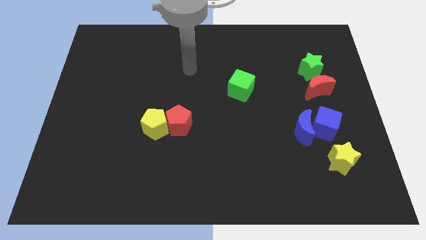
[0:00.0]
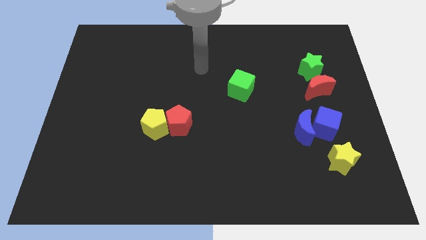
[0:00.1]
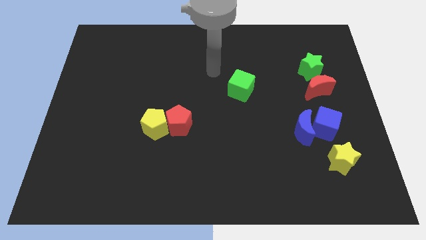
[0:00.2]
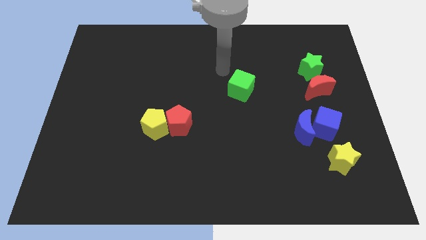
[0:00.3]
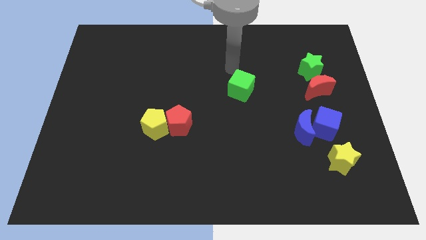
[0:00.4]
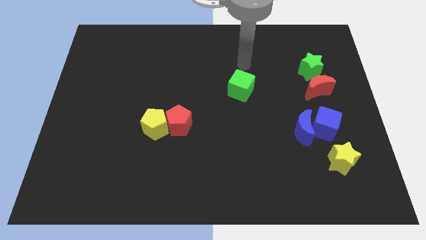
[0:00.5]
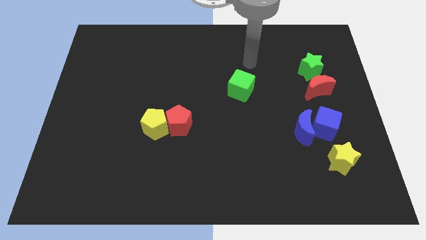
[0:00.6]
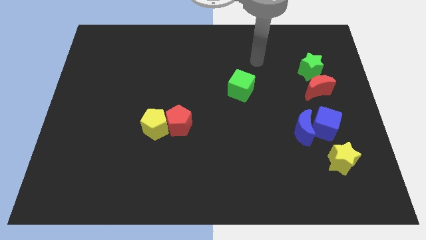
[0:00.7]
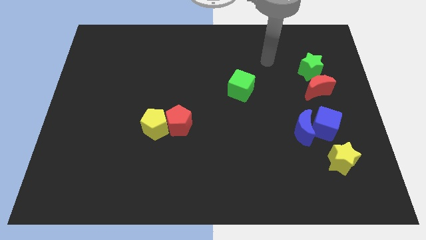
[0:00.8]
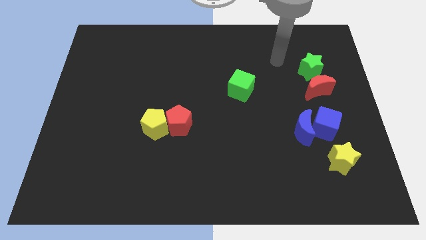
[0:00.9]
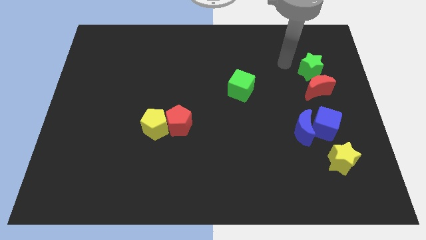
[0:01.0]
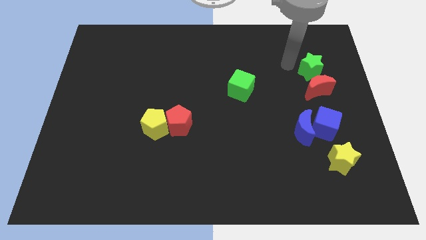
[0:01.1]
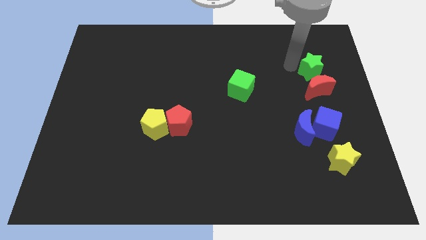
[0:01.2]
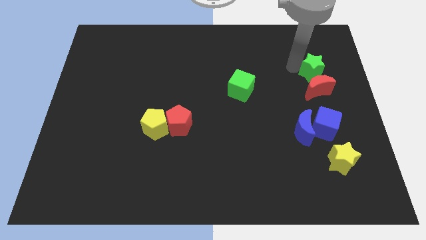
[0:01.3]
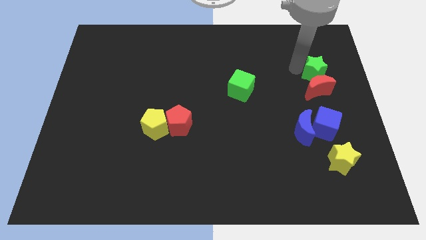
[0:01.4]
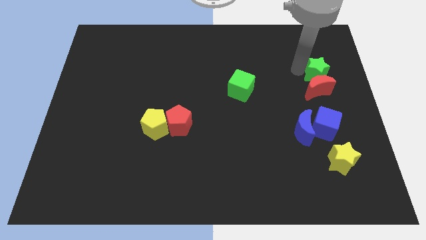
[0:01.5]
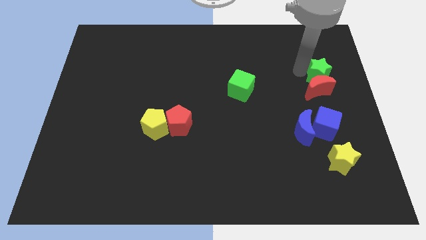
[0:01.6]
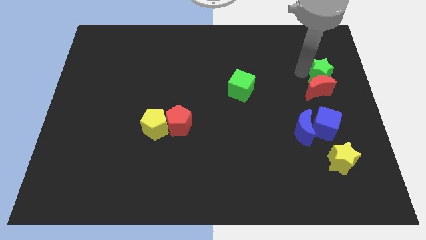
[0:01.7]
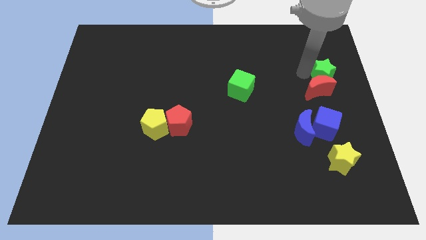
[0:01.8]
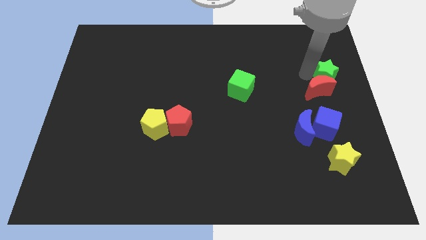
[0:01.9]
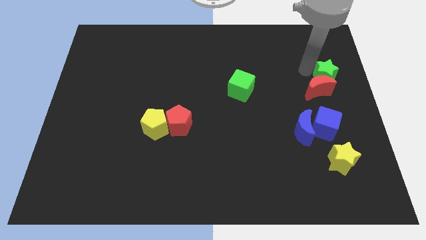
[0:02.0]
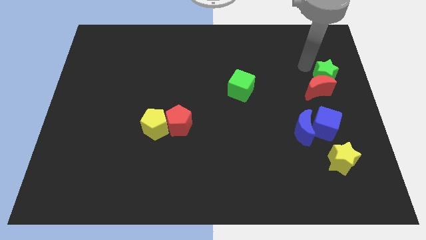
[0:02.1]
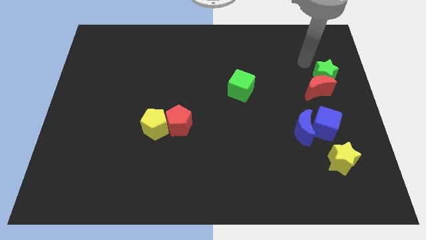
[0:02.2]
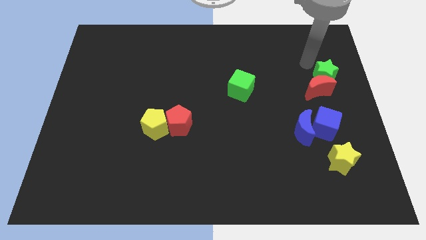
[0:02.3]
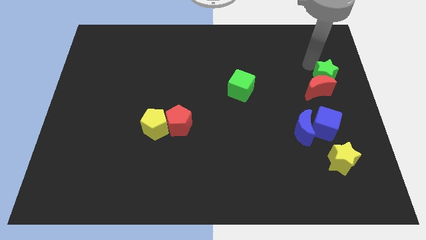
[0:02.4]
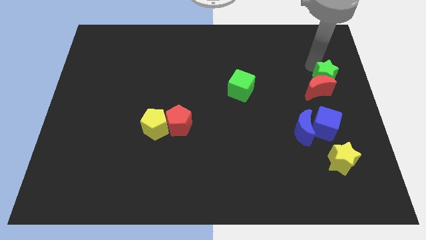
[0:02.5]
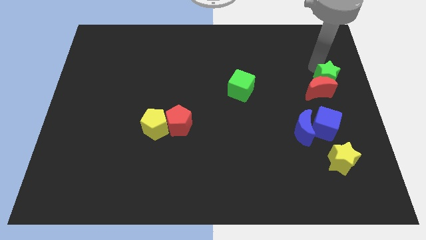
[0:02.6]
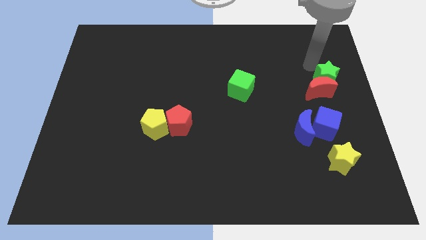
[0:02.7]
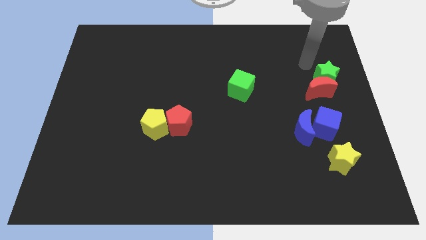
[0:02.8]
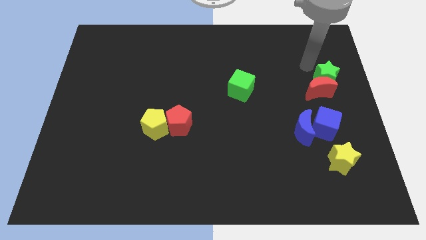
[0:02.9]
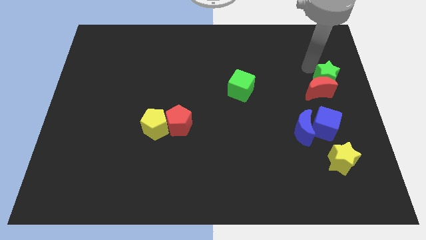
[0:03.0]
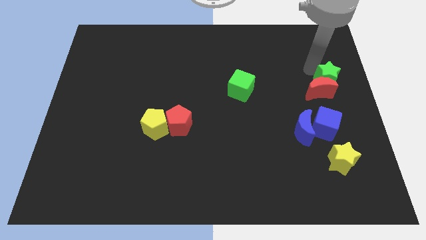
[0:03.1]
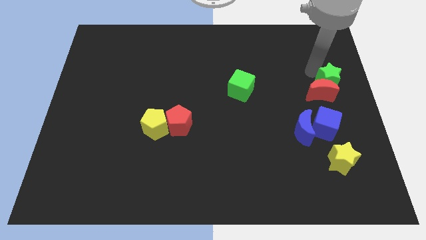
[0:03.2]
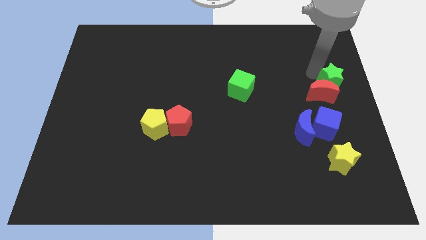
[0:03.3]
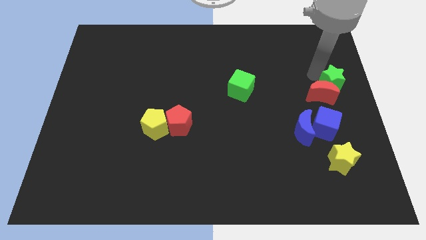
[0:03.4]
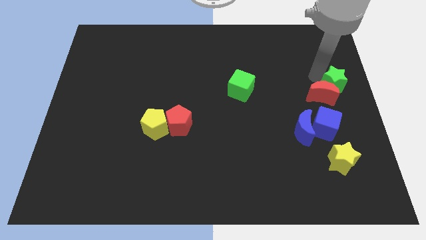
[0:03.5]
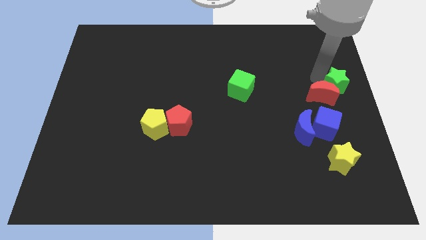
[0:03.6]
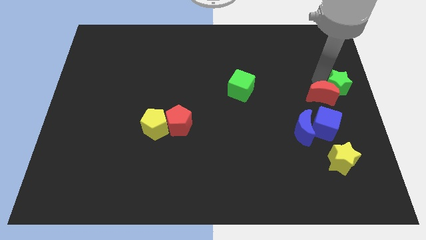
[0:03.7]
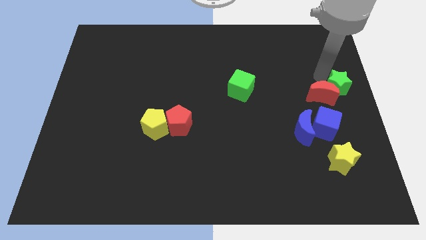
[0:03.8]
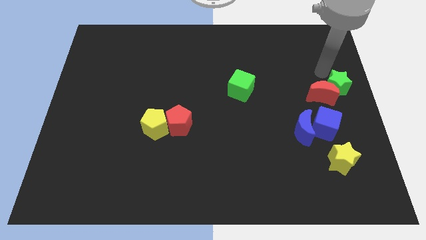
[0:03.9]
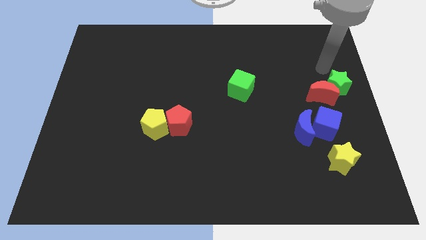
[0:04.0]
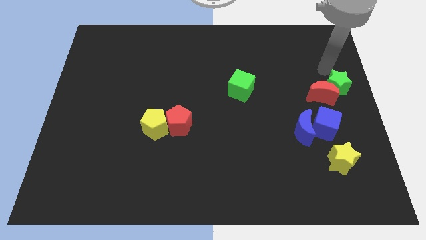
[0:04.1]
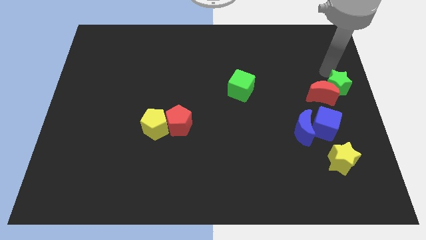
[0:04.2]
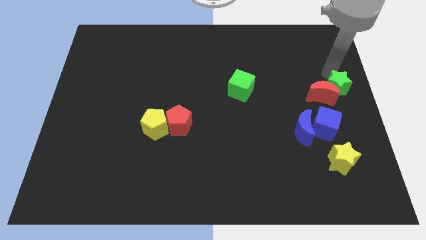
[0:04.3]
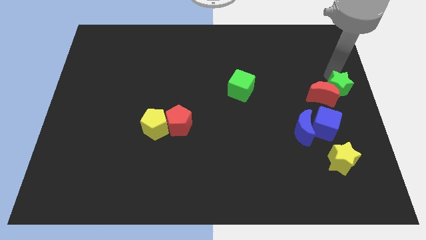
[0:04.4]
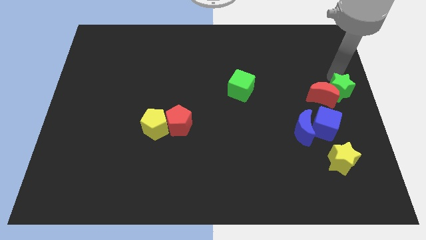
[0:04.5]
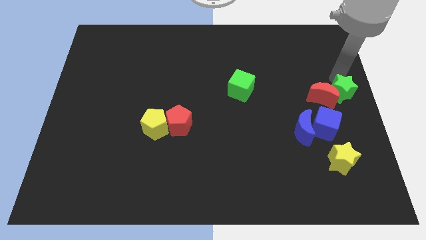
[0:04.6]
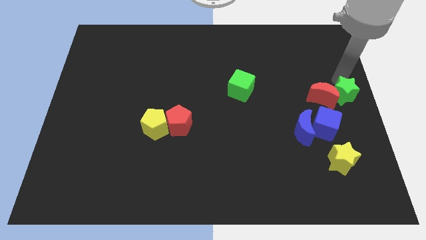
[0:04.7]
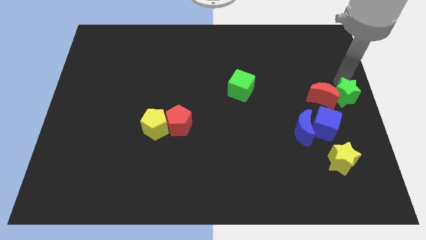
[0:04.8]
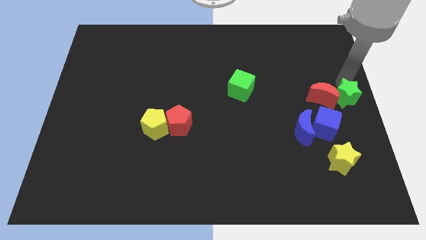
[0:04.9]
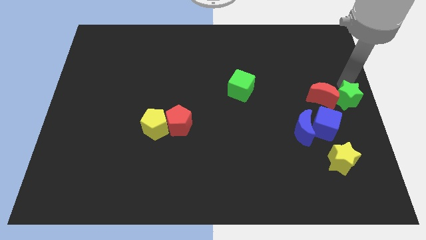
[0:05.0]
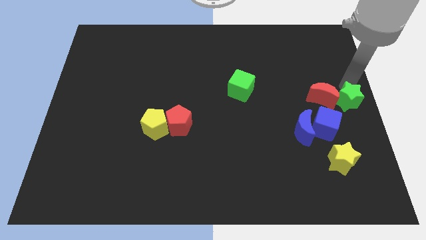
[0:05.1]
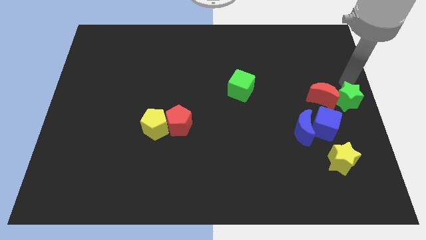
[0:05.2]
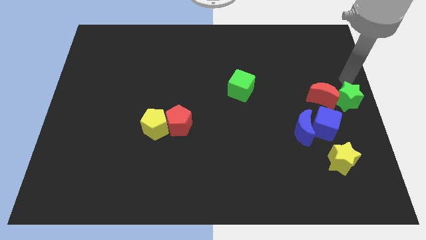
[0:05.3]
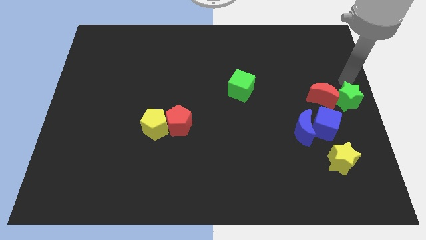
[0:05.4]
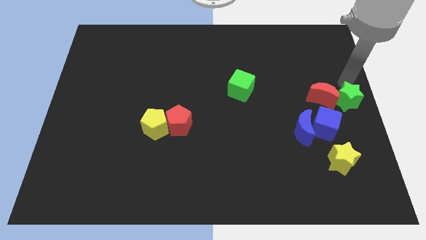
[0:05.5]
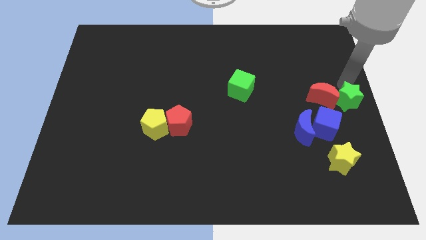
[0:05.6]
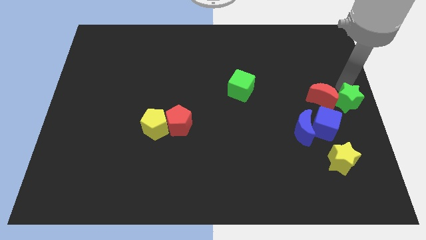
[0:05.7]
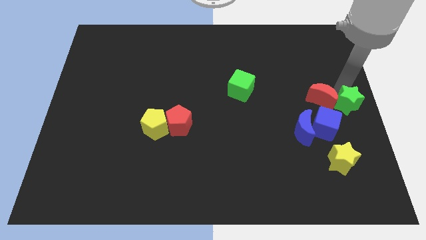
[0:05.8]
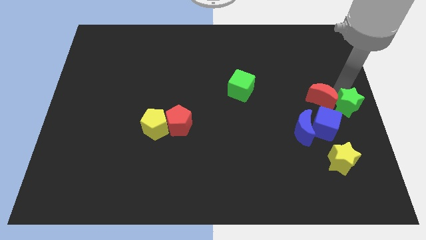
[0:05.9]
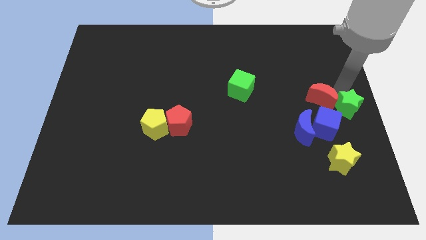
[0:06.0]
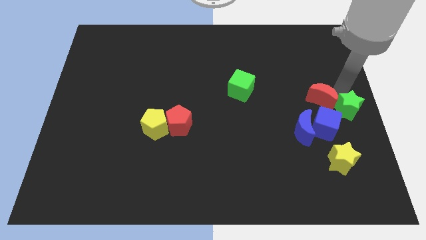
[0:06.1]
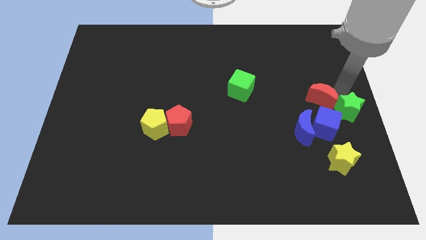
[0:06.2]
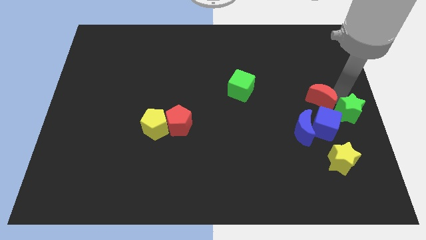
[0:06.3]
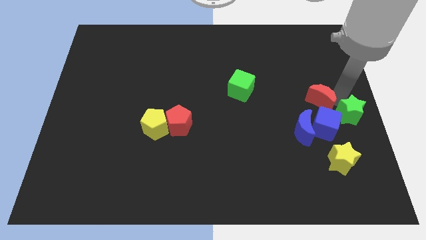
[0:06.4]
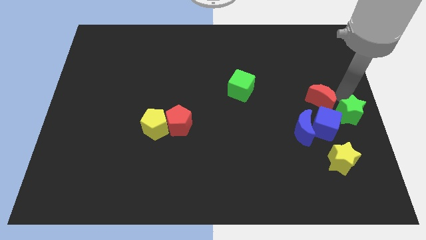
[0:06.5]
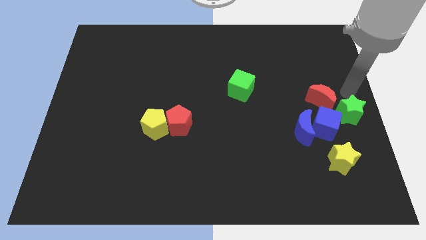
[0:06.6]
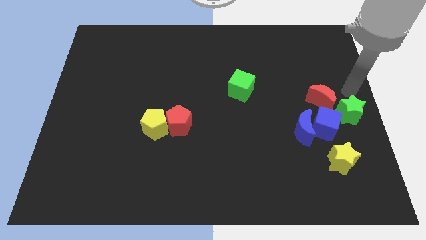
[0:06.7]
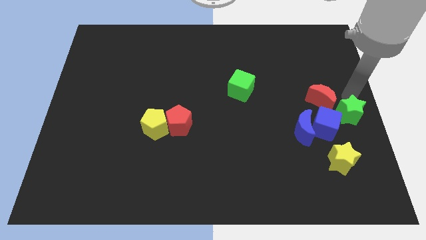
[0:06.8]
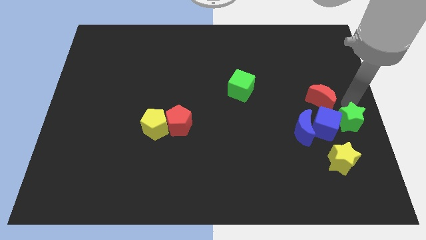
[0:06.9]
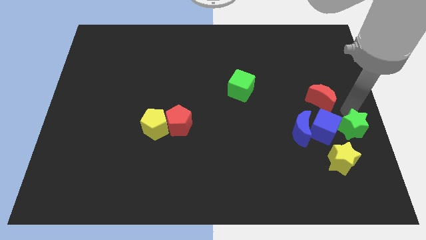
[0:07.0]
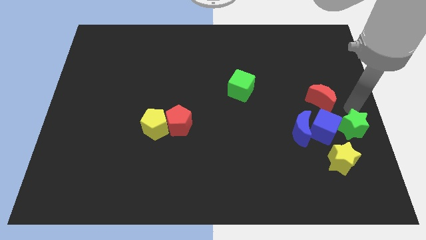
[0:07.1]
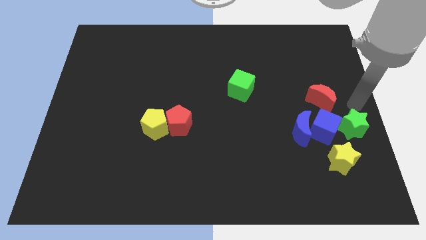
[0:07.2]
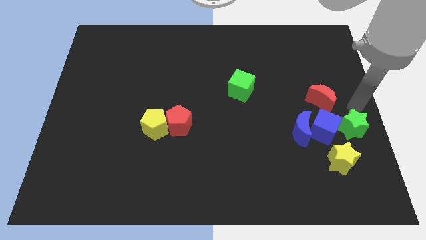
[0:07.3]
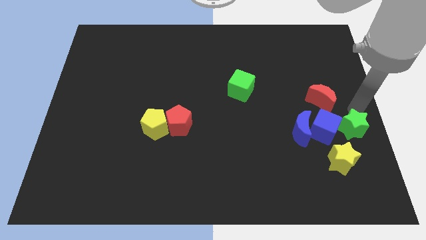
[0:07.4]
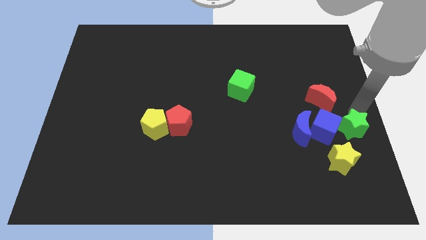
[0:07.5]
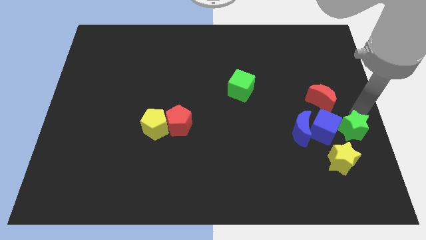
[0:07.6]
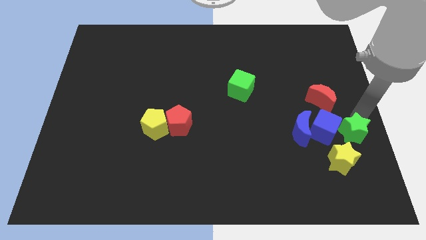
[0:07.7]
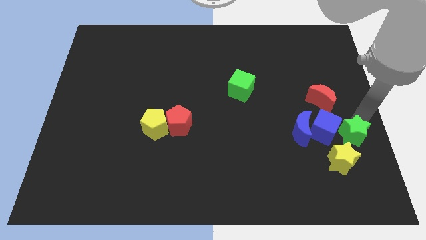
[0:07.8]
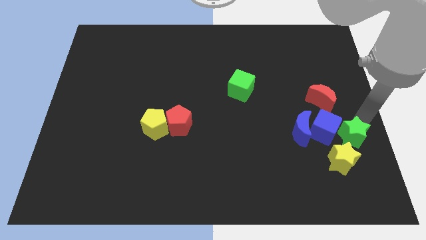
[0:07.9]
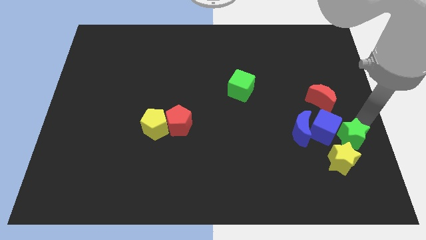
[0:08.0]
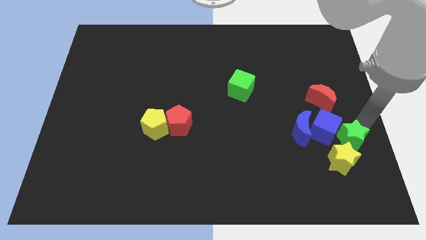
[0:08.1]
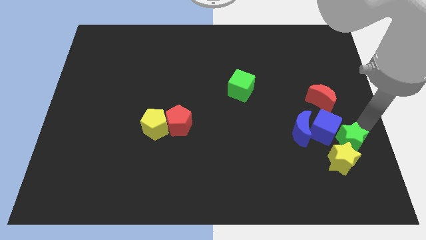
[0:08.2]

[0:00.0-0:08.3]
move the green star towards the yellow star
